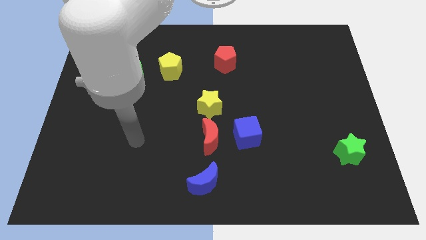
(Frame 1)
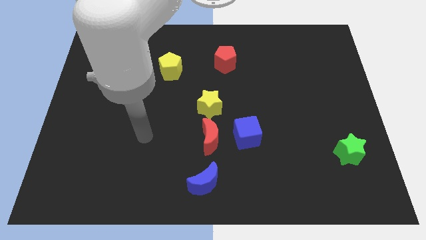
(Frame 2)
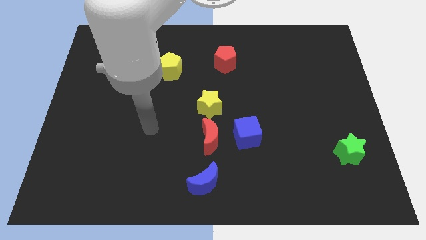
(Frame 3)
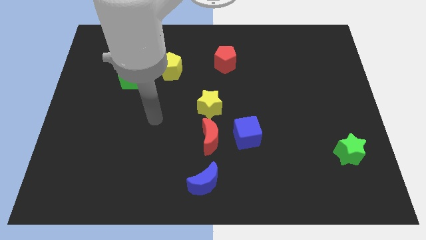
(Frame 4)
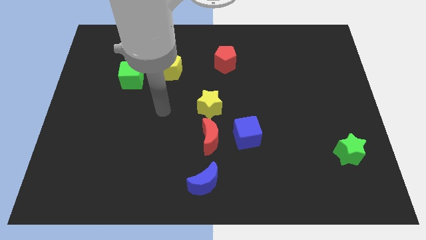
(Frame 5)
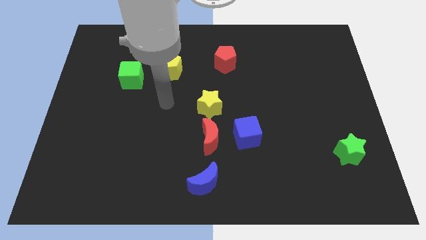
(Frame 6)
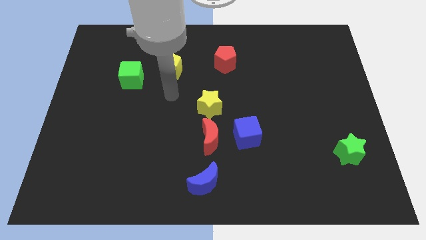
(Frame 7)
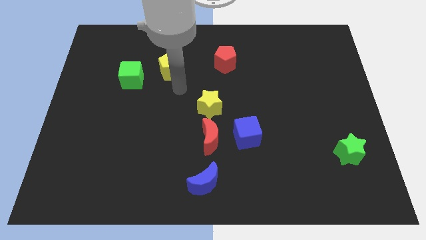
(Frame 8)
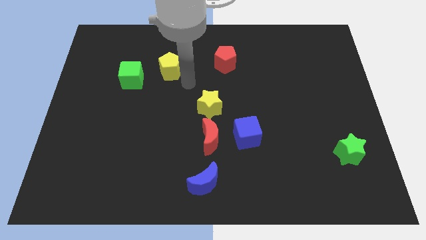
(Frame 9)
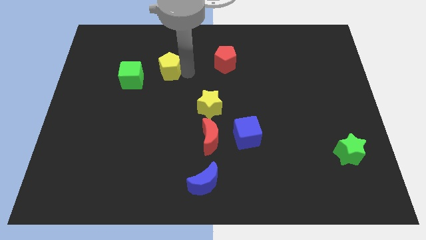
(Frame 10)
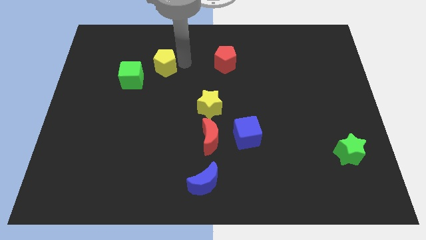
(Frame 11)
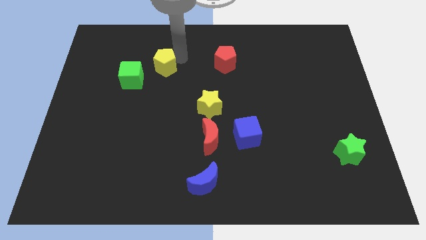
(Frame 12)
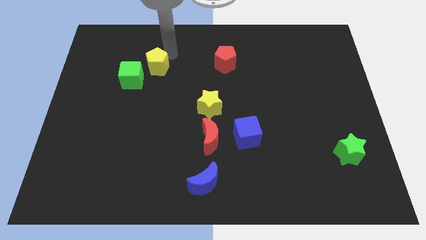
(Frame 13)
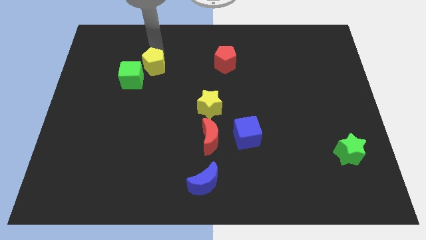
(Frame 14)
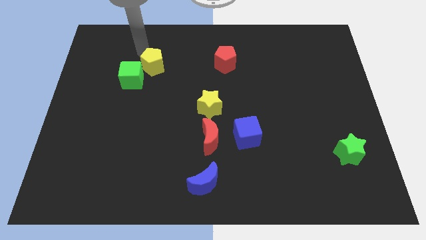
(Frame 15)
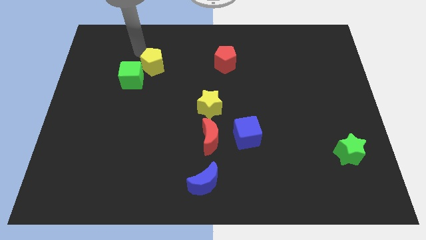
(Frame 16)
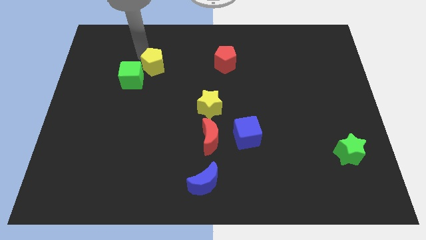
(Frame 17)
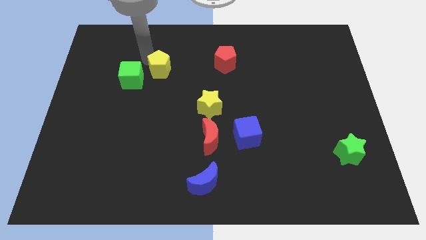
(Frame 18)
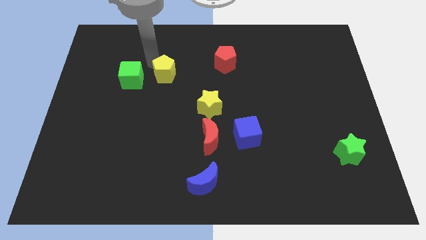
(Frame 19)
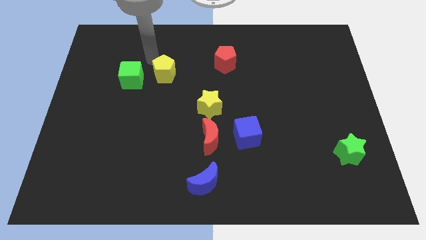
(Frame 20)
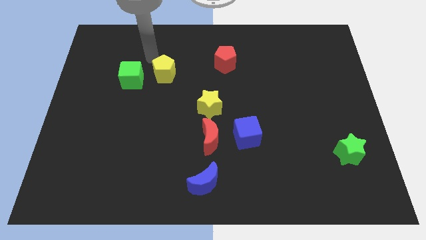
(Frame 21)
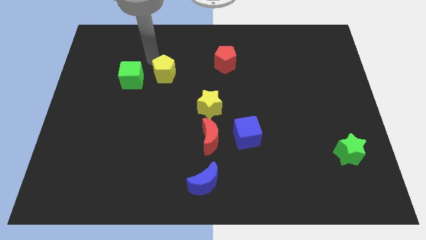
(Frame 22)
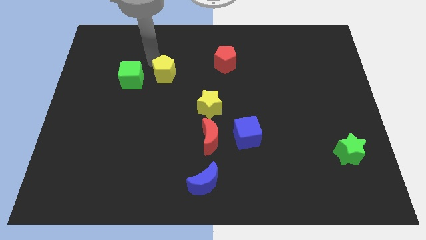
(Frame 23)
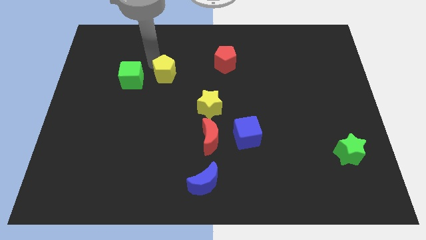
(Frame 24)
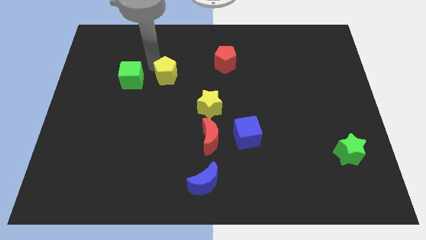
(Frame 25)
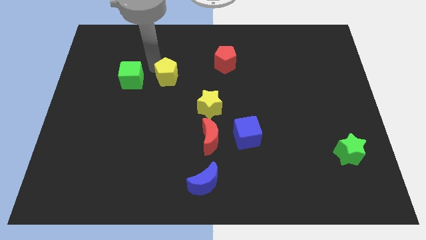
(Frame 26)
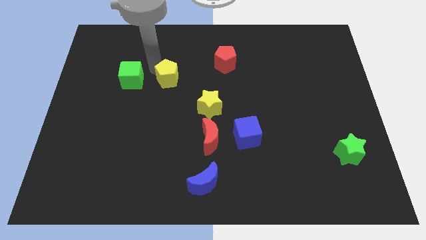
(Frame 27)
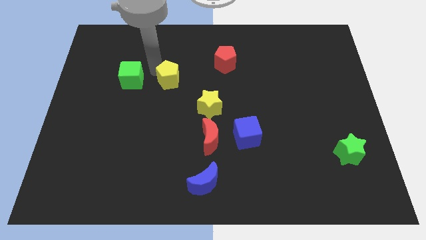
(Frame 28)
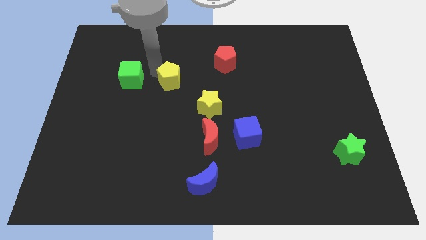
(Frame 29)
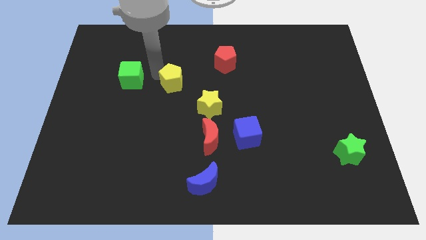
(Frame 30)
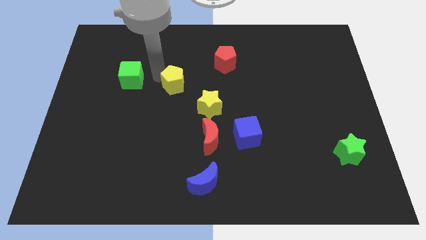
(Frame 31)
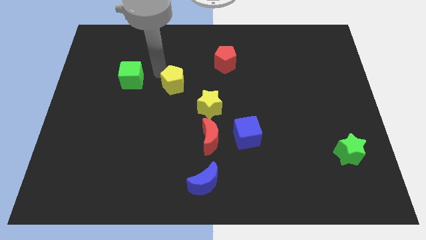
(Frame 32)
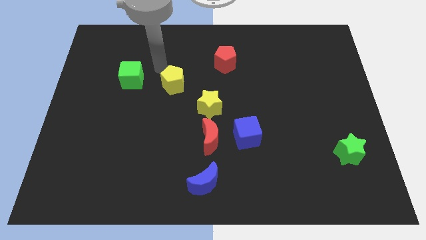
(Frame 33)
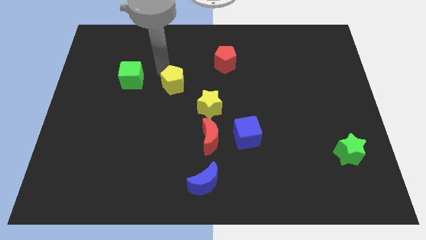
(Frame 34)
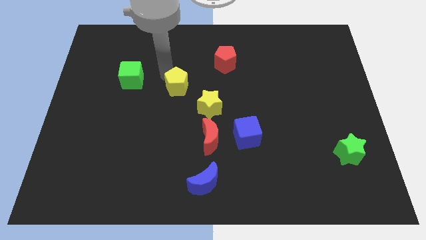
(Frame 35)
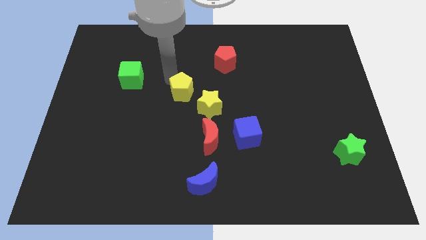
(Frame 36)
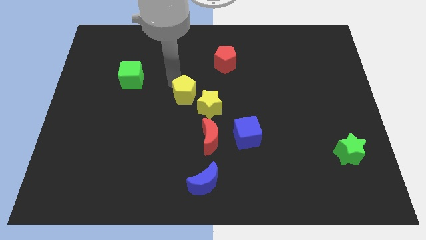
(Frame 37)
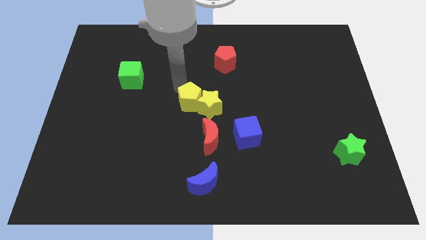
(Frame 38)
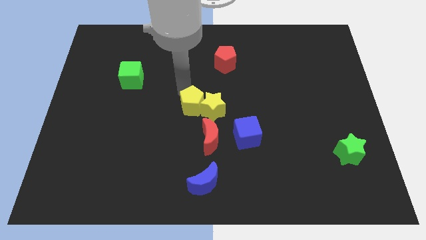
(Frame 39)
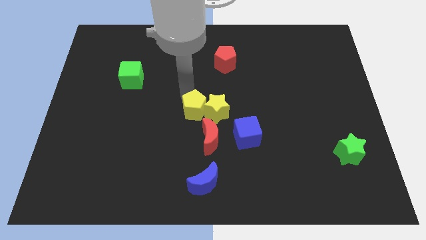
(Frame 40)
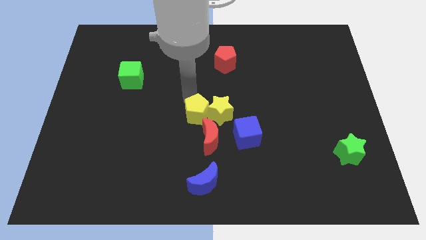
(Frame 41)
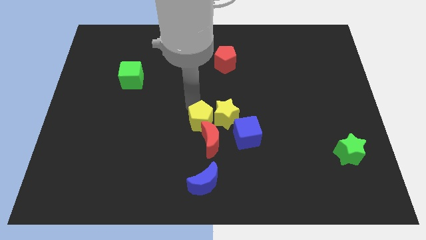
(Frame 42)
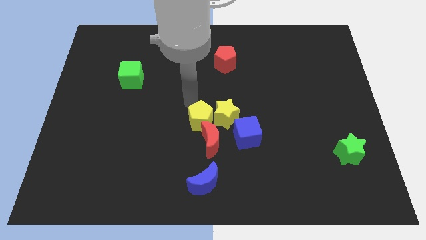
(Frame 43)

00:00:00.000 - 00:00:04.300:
move the yellow pentagon towards the red moon

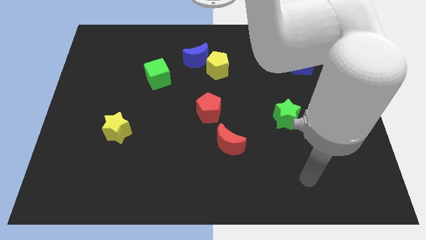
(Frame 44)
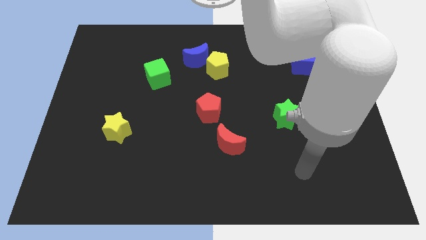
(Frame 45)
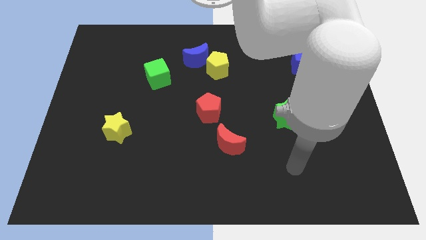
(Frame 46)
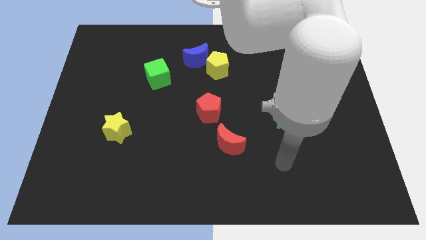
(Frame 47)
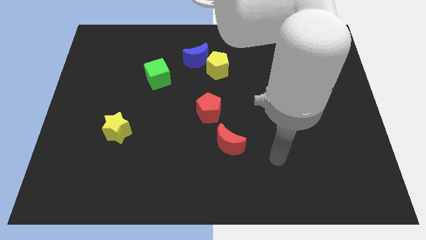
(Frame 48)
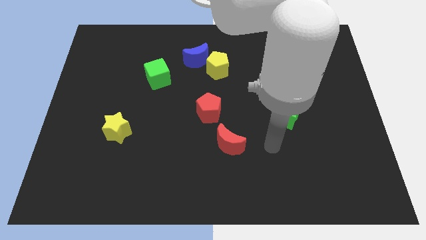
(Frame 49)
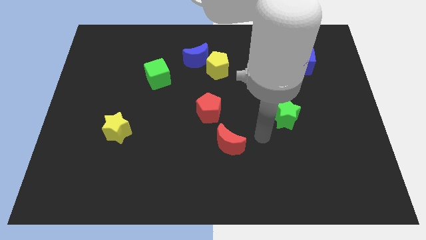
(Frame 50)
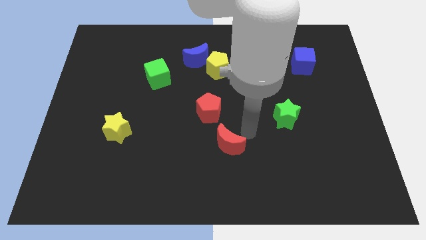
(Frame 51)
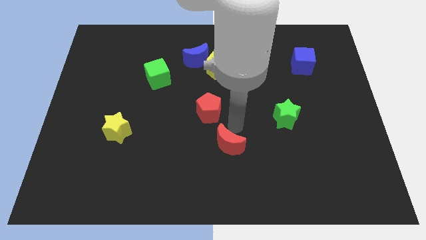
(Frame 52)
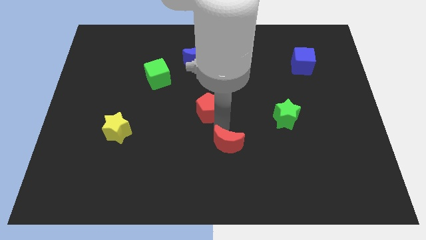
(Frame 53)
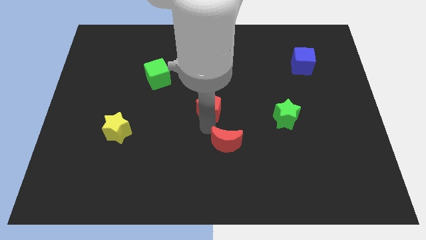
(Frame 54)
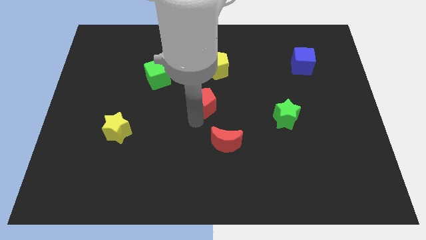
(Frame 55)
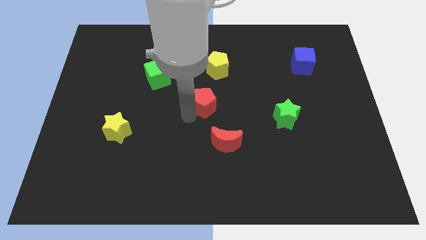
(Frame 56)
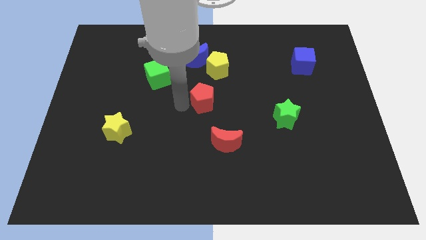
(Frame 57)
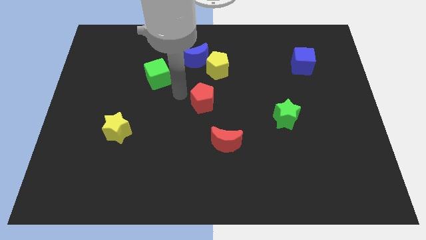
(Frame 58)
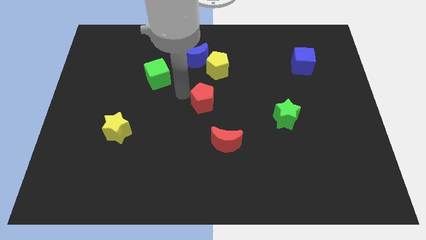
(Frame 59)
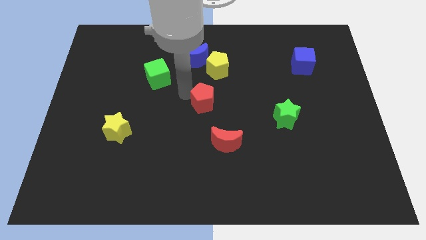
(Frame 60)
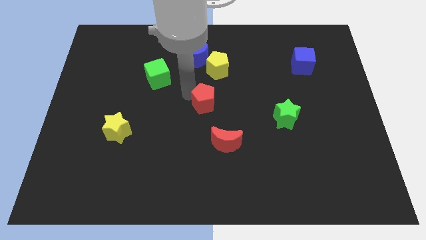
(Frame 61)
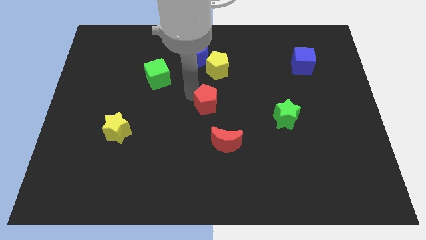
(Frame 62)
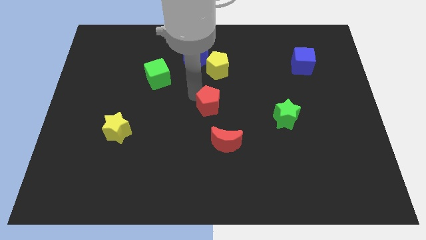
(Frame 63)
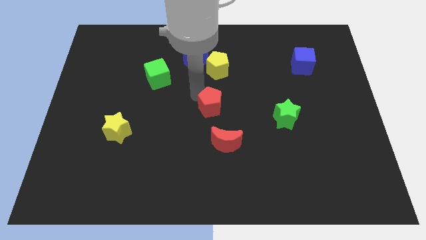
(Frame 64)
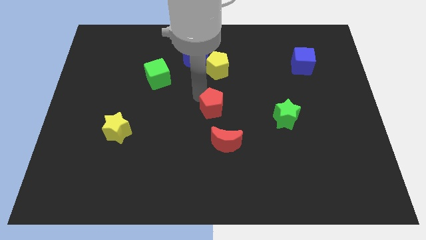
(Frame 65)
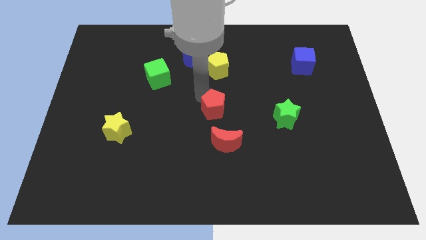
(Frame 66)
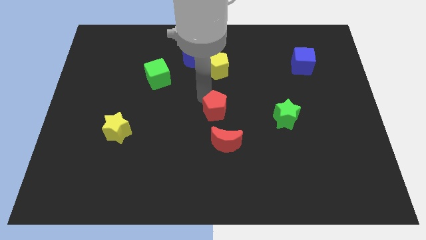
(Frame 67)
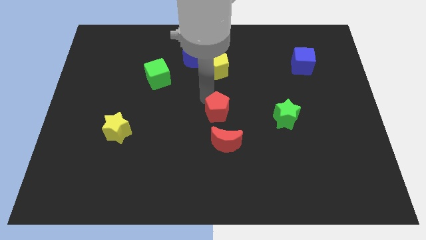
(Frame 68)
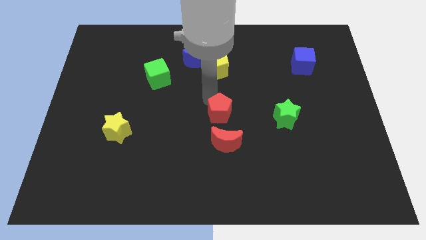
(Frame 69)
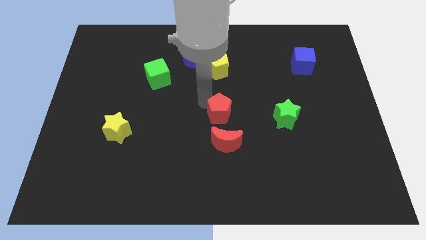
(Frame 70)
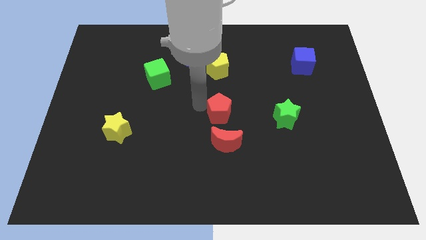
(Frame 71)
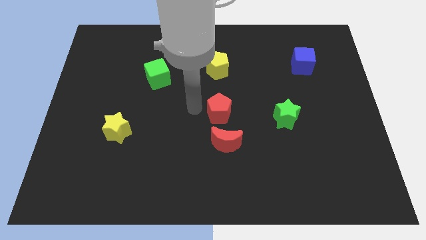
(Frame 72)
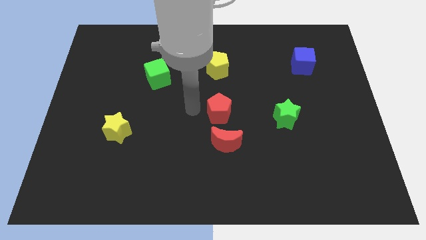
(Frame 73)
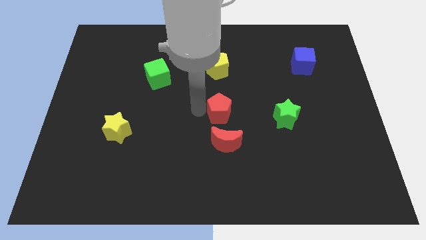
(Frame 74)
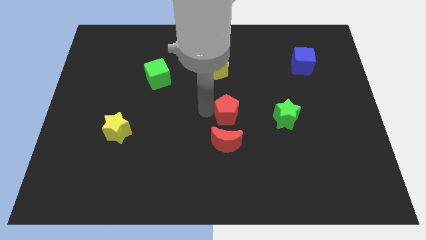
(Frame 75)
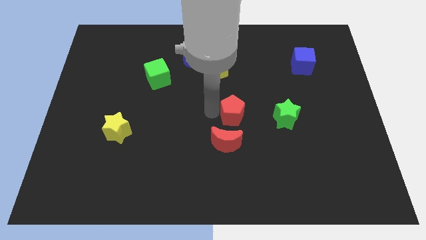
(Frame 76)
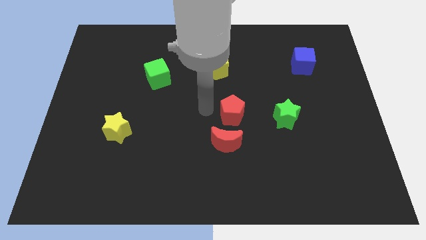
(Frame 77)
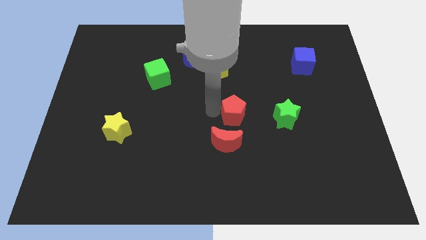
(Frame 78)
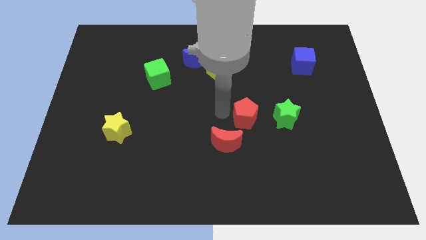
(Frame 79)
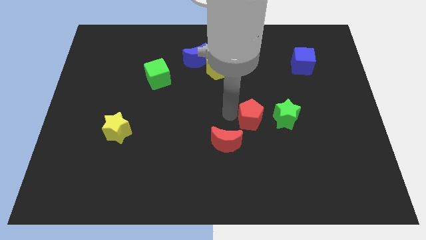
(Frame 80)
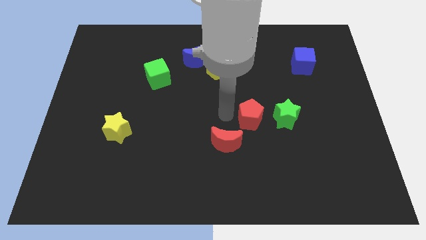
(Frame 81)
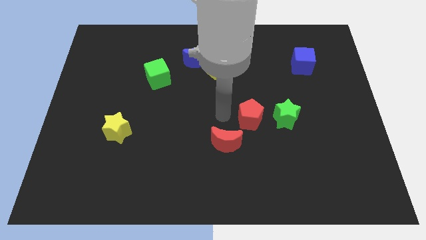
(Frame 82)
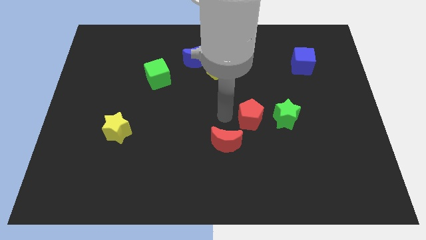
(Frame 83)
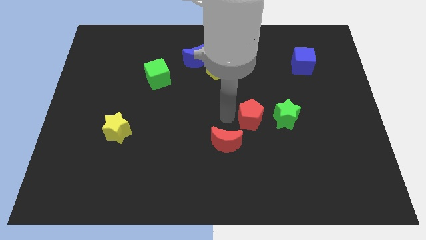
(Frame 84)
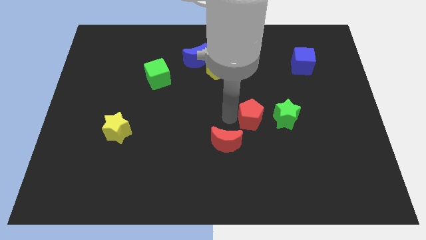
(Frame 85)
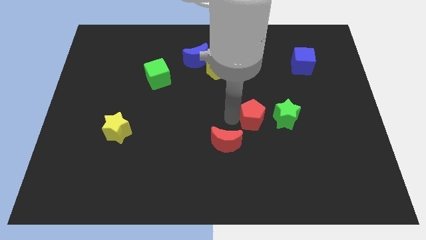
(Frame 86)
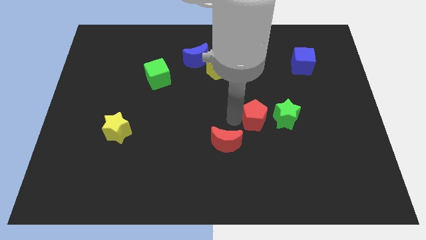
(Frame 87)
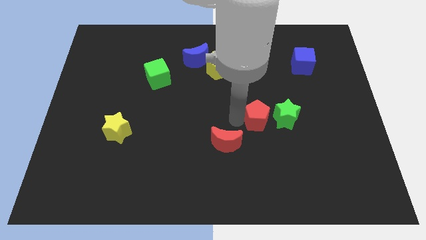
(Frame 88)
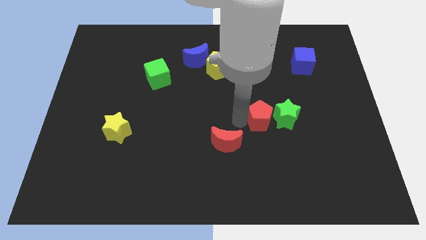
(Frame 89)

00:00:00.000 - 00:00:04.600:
slide the red pentagon next to the green star
